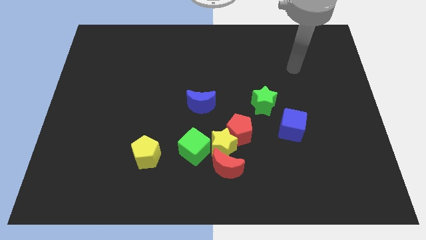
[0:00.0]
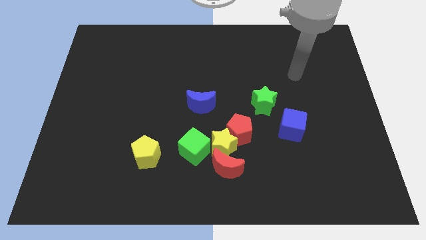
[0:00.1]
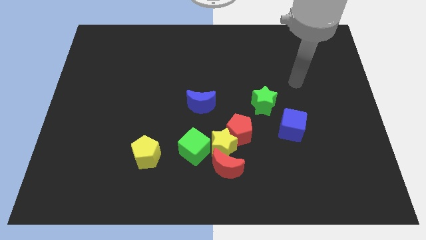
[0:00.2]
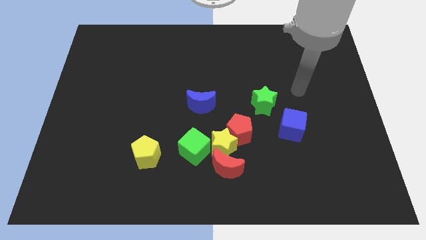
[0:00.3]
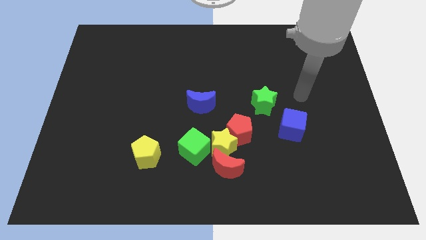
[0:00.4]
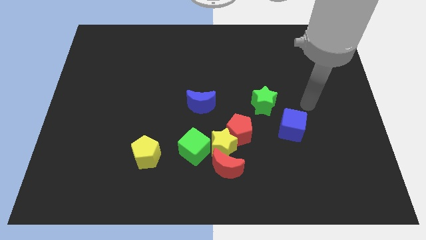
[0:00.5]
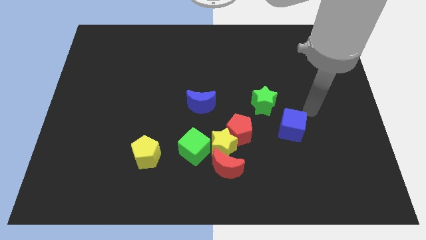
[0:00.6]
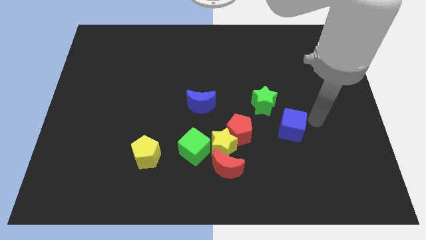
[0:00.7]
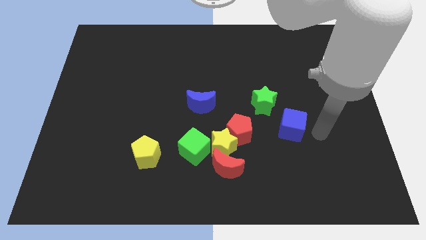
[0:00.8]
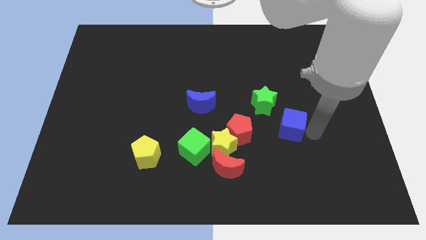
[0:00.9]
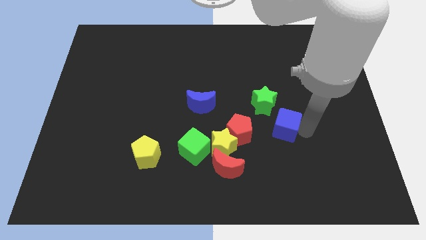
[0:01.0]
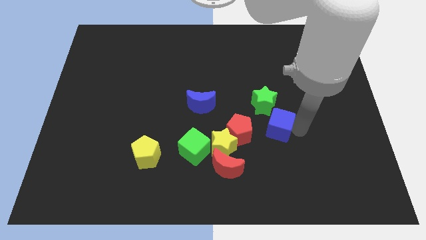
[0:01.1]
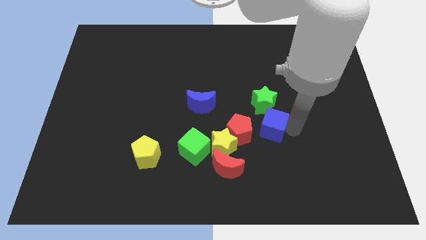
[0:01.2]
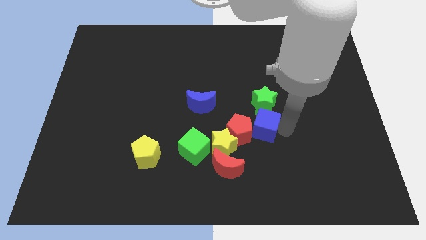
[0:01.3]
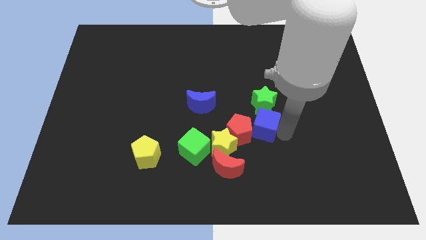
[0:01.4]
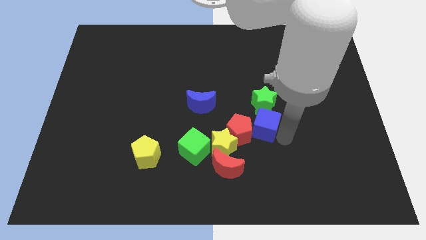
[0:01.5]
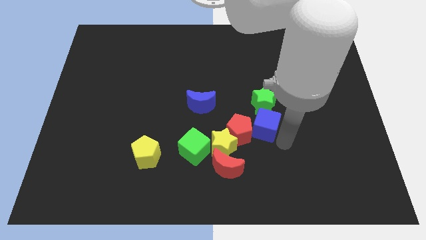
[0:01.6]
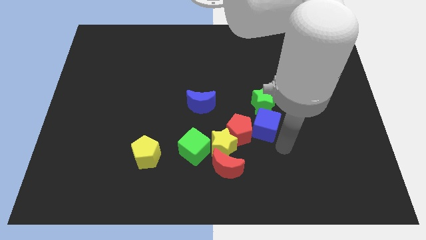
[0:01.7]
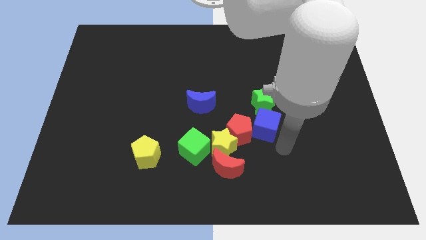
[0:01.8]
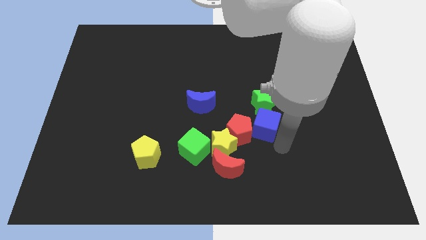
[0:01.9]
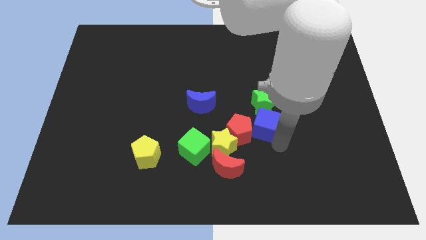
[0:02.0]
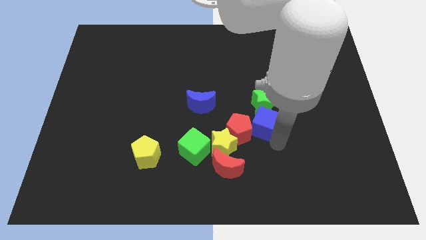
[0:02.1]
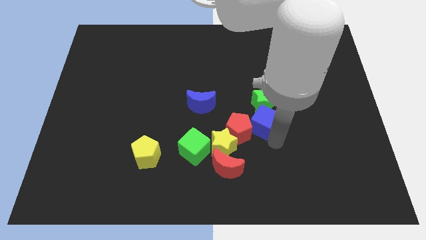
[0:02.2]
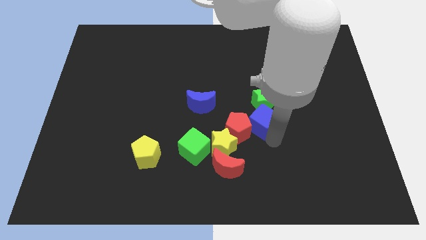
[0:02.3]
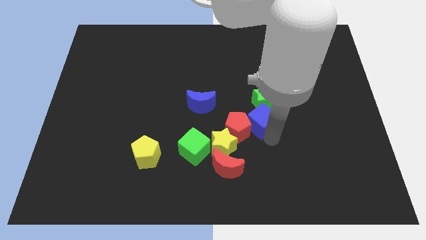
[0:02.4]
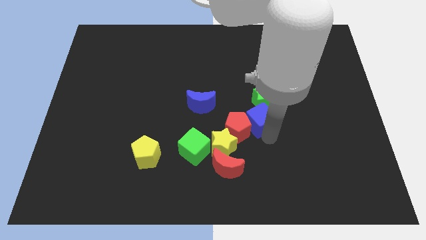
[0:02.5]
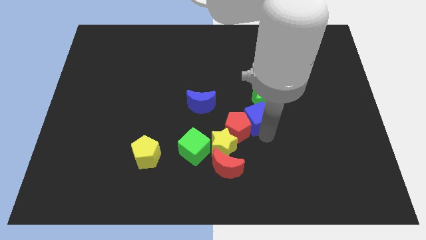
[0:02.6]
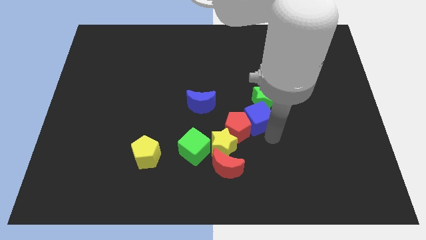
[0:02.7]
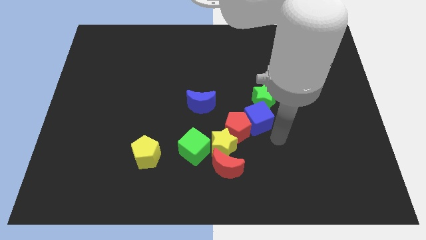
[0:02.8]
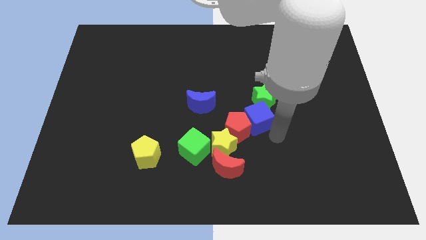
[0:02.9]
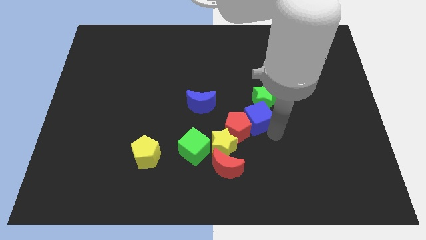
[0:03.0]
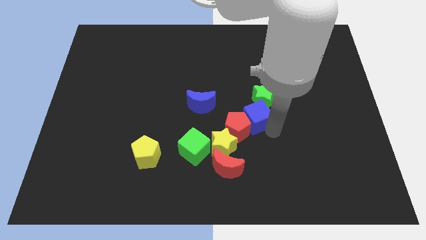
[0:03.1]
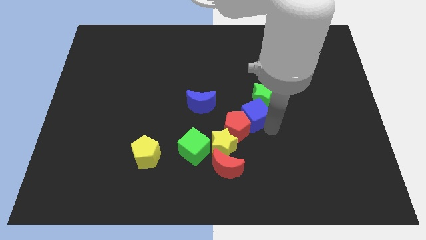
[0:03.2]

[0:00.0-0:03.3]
move the blue cube diagonally up and to the left a little bit

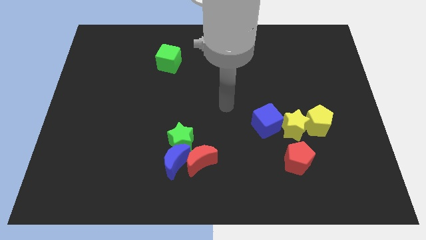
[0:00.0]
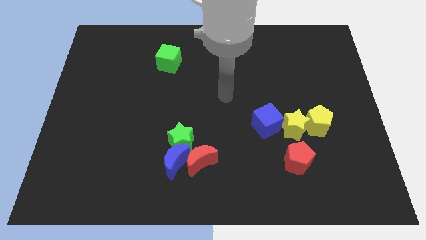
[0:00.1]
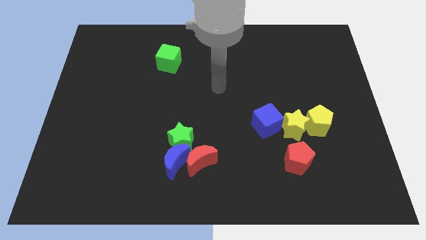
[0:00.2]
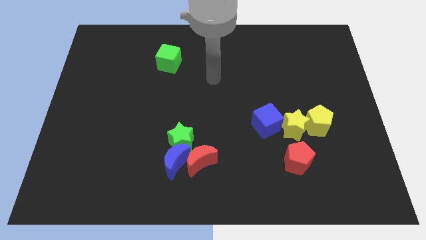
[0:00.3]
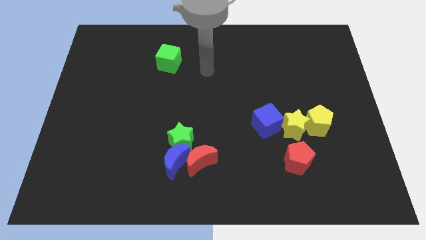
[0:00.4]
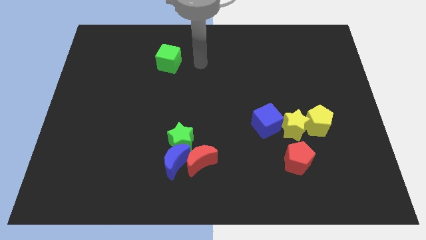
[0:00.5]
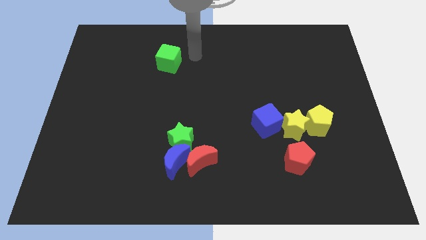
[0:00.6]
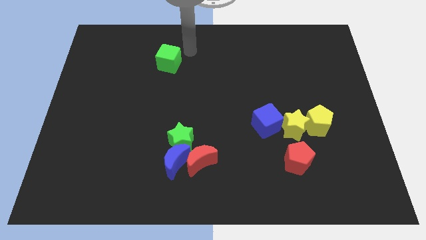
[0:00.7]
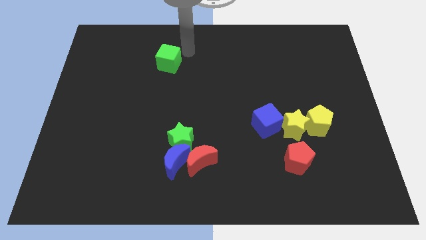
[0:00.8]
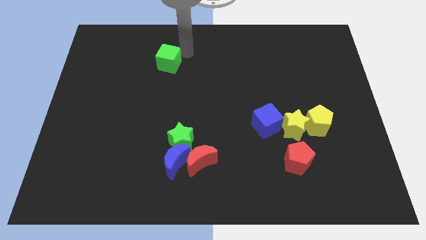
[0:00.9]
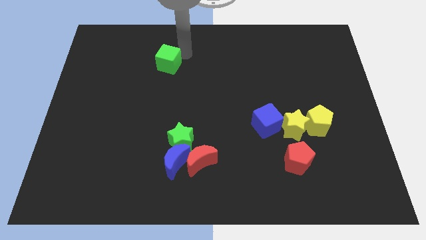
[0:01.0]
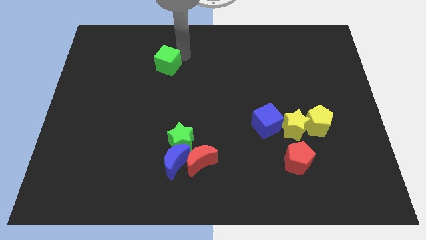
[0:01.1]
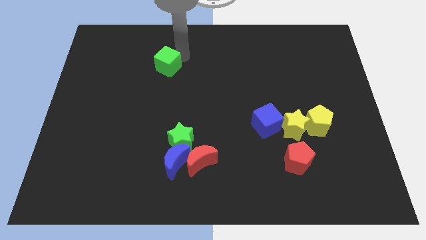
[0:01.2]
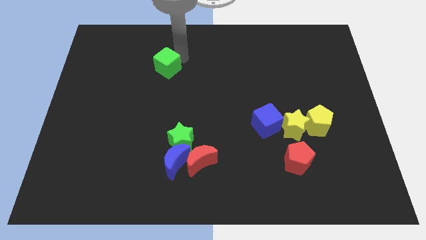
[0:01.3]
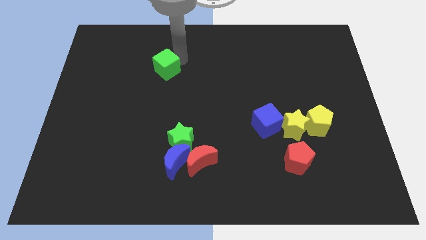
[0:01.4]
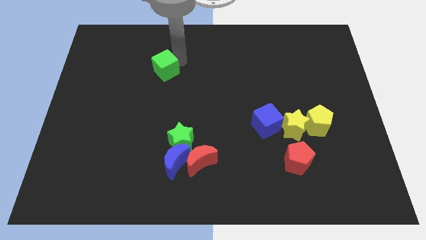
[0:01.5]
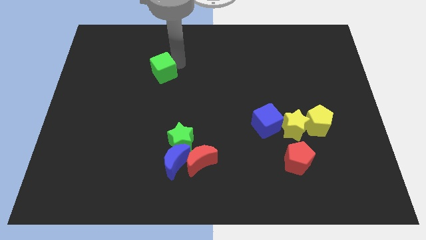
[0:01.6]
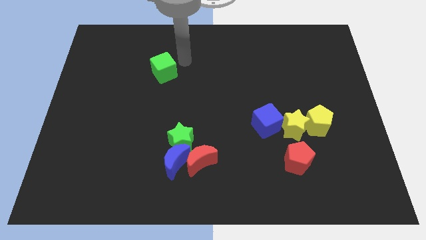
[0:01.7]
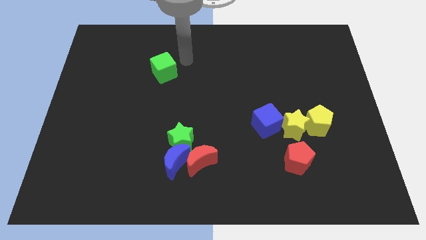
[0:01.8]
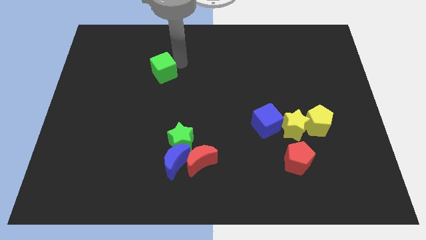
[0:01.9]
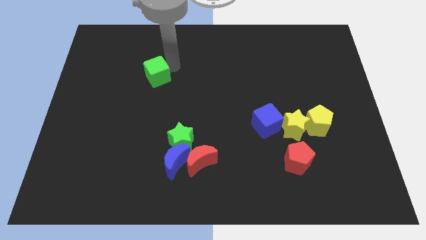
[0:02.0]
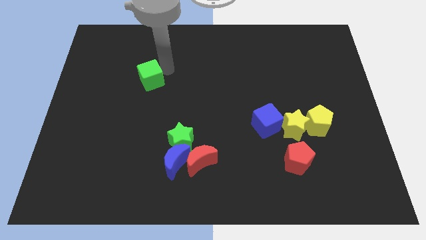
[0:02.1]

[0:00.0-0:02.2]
slide the green cube a little downwards and then to the left

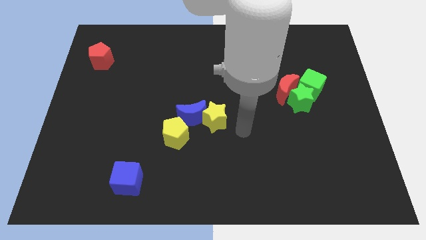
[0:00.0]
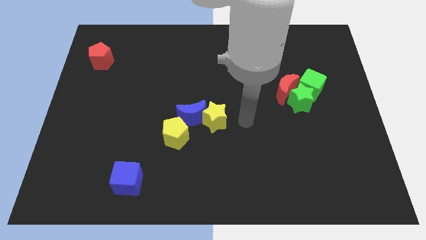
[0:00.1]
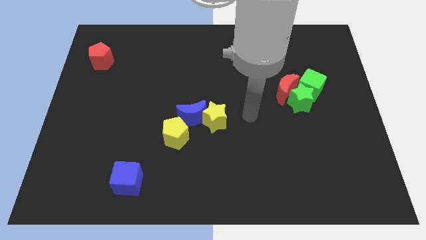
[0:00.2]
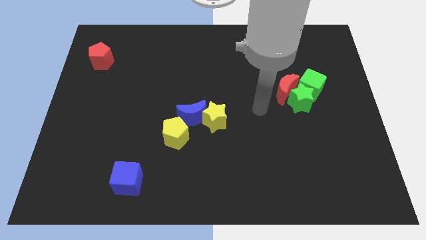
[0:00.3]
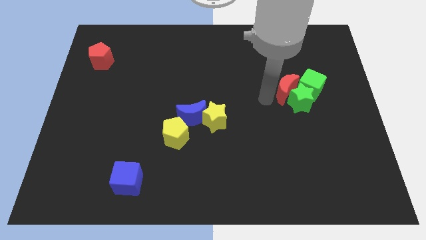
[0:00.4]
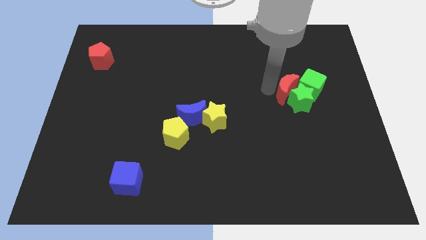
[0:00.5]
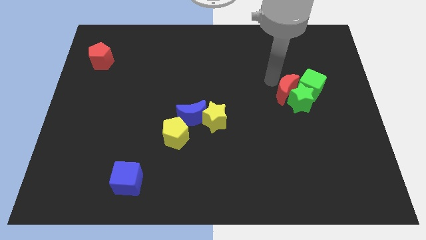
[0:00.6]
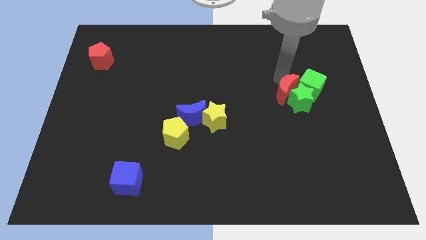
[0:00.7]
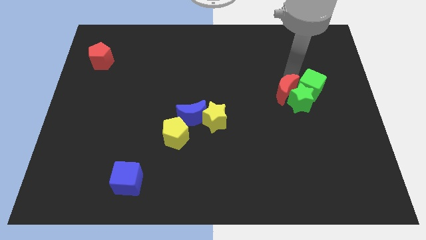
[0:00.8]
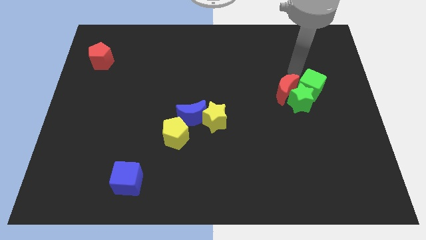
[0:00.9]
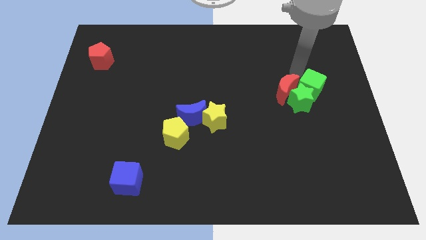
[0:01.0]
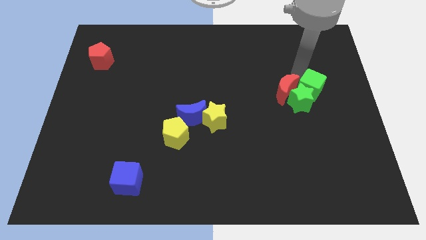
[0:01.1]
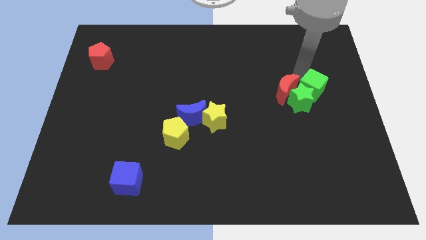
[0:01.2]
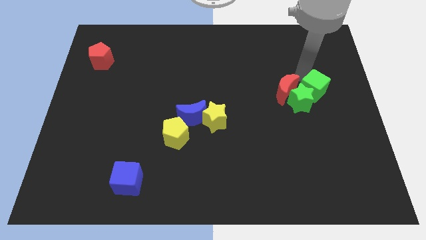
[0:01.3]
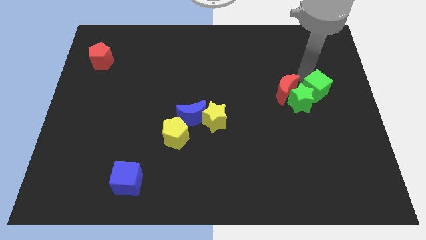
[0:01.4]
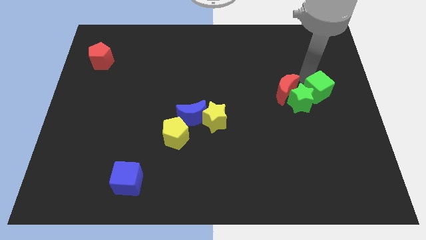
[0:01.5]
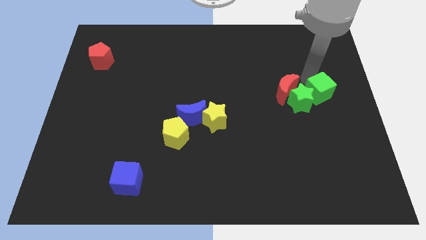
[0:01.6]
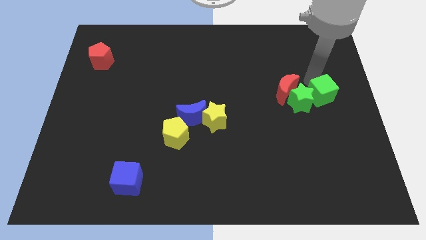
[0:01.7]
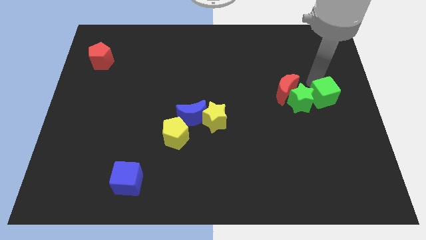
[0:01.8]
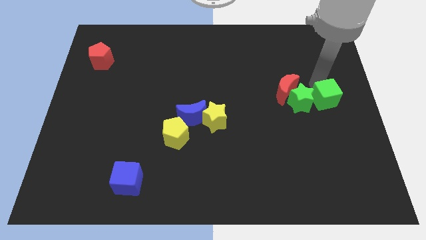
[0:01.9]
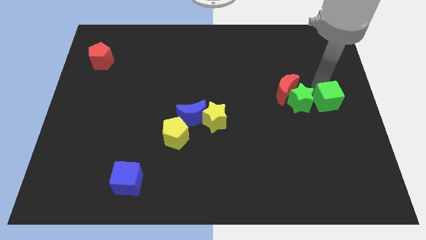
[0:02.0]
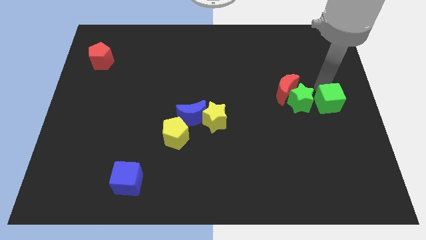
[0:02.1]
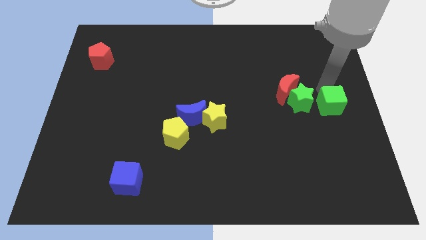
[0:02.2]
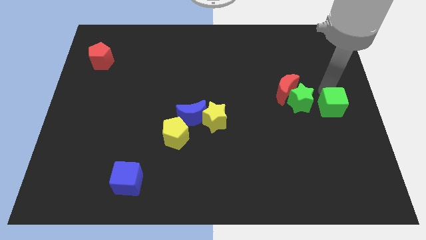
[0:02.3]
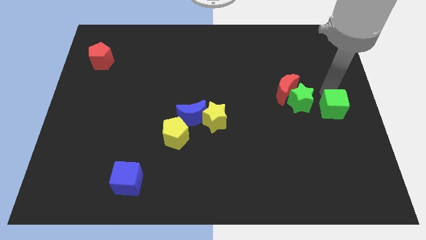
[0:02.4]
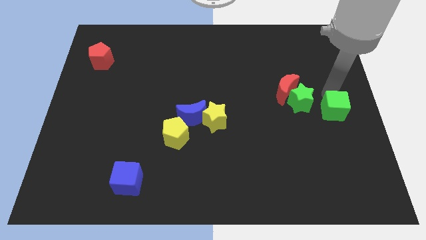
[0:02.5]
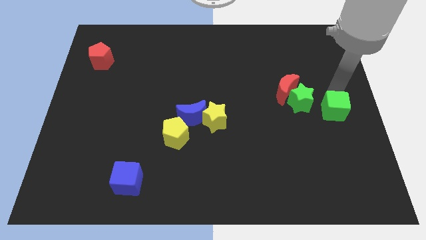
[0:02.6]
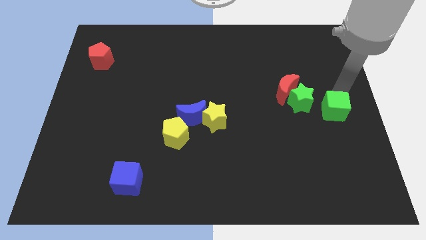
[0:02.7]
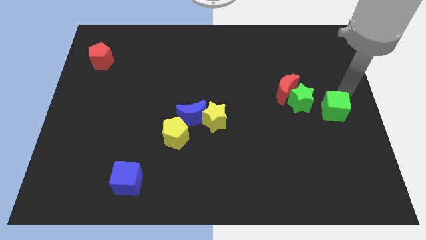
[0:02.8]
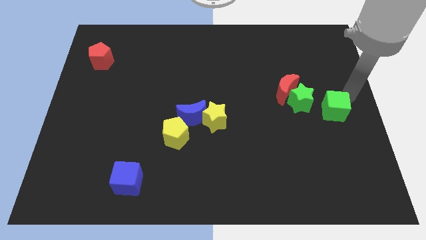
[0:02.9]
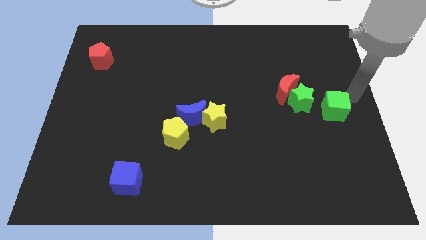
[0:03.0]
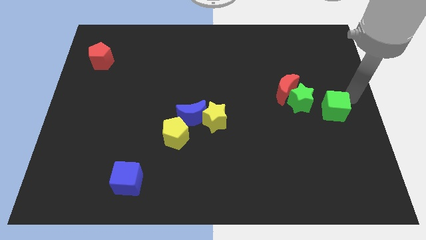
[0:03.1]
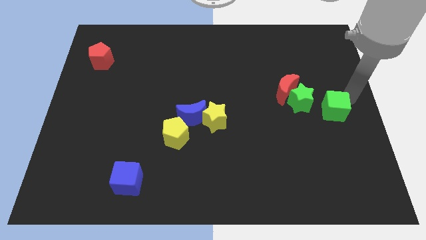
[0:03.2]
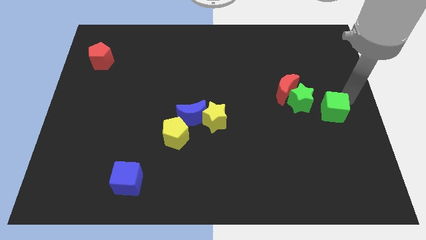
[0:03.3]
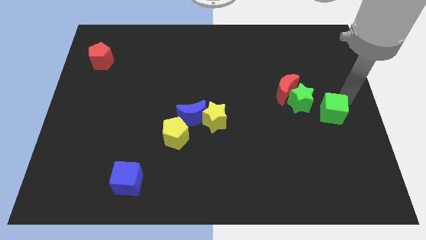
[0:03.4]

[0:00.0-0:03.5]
push the green cube a bit down

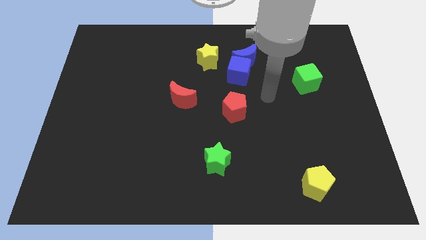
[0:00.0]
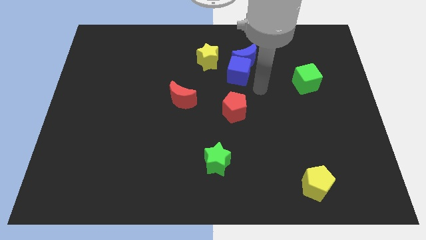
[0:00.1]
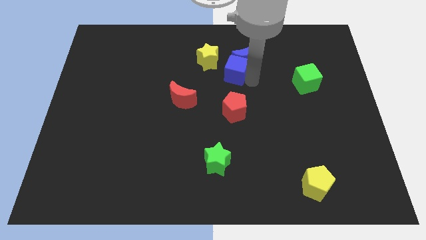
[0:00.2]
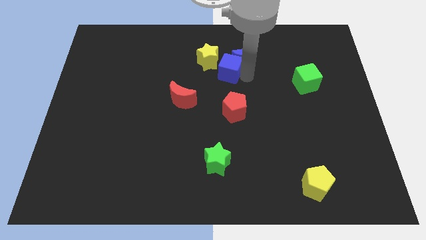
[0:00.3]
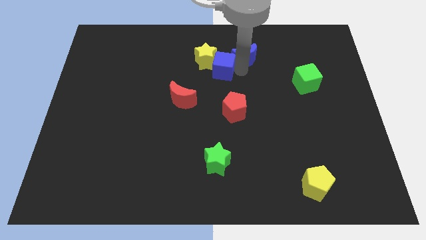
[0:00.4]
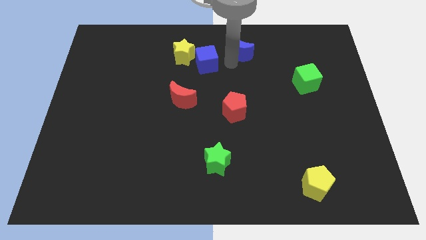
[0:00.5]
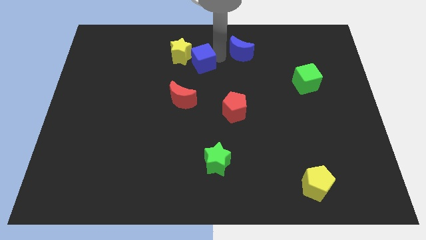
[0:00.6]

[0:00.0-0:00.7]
slightly push the yellow star left
